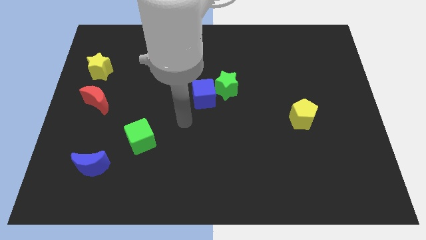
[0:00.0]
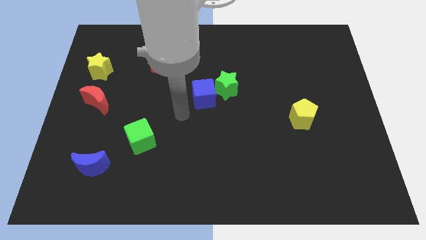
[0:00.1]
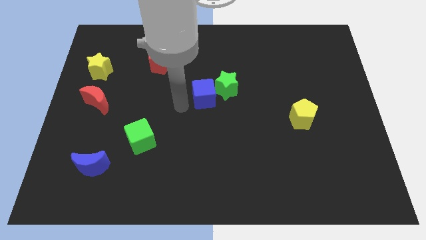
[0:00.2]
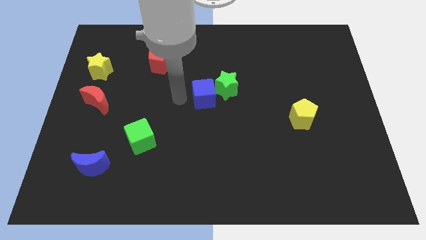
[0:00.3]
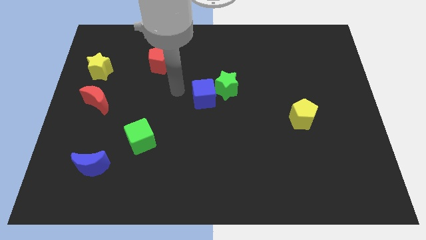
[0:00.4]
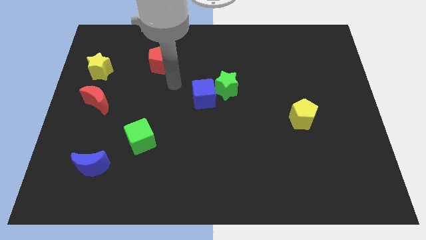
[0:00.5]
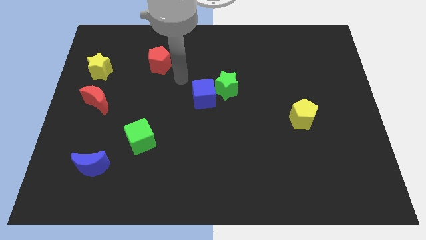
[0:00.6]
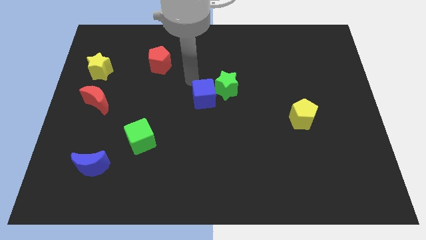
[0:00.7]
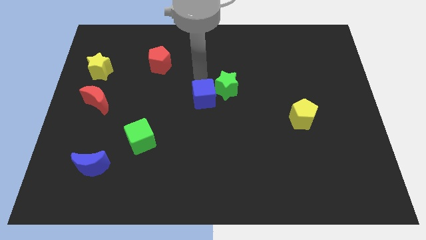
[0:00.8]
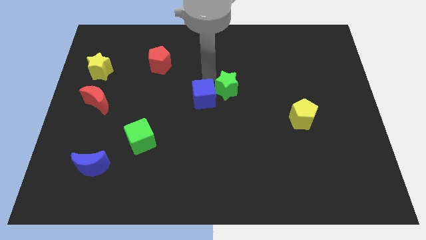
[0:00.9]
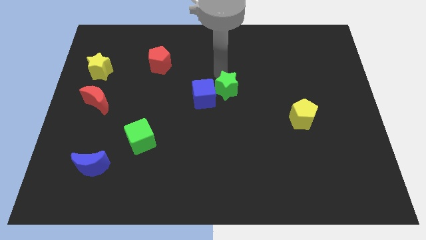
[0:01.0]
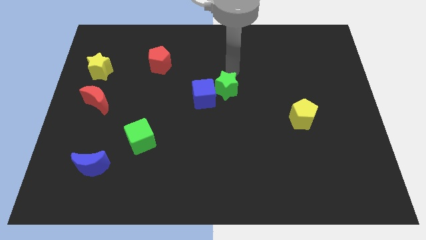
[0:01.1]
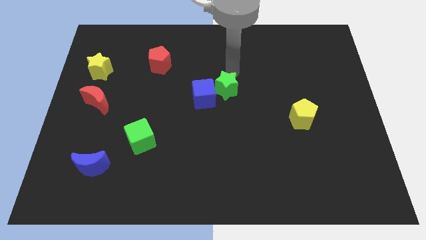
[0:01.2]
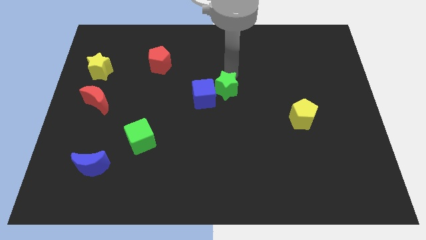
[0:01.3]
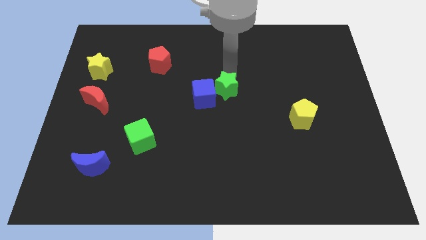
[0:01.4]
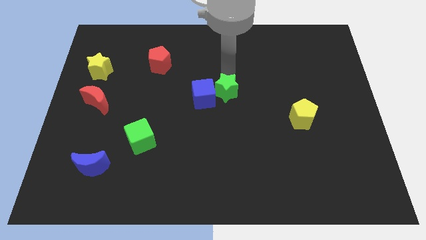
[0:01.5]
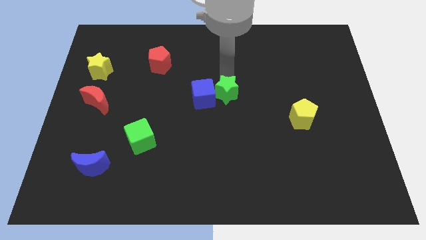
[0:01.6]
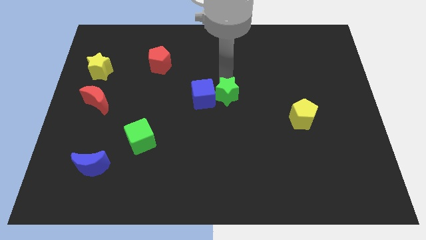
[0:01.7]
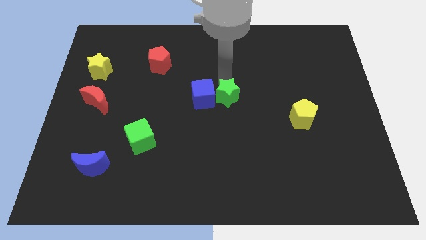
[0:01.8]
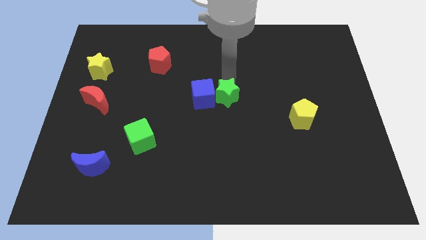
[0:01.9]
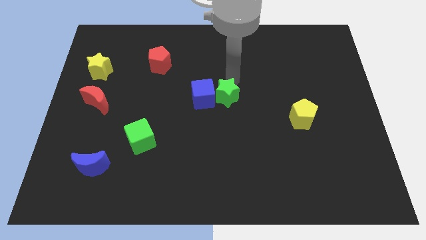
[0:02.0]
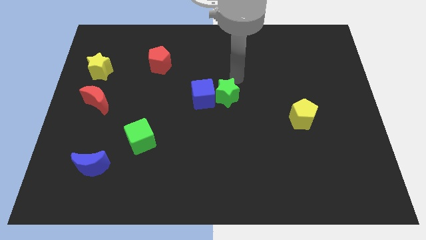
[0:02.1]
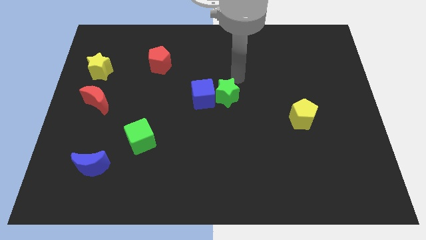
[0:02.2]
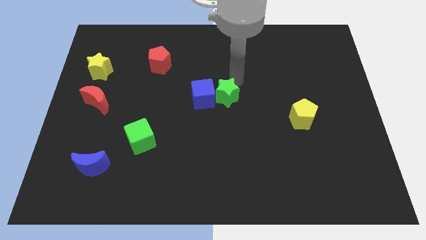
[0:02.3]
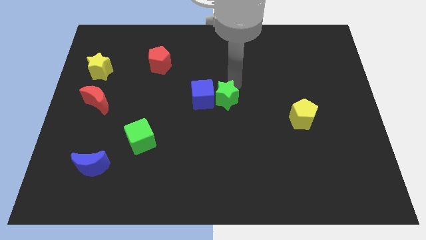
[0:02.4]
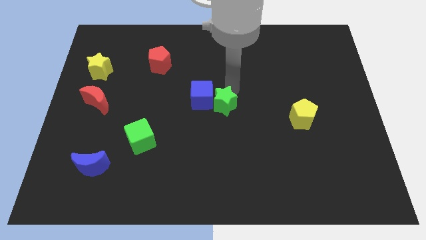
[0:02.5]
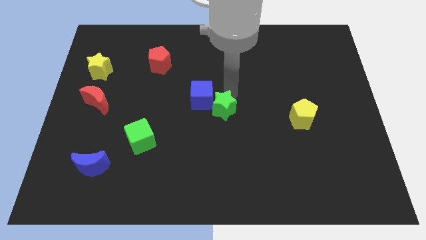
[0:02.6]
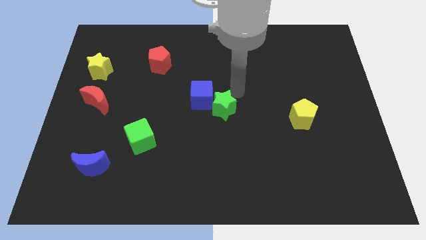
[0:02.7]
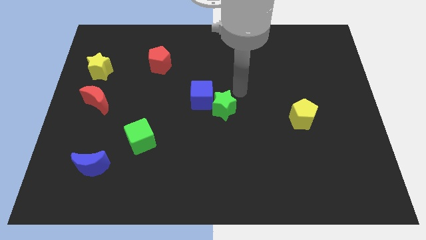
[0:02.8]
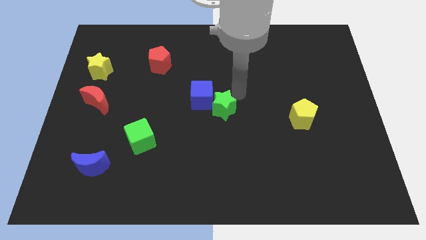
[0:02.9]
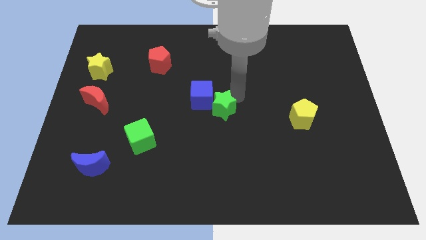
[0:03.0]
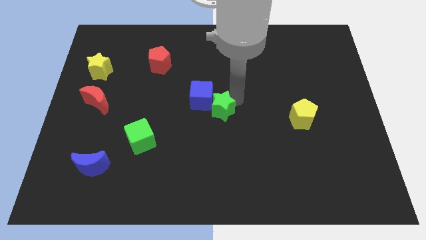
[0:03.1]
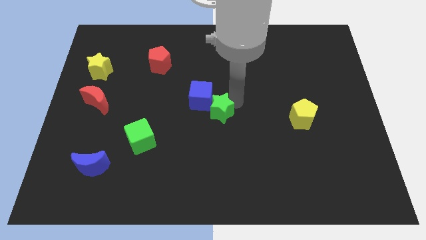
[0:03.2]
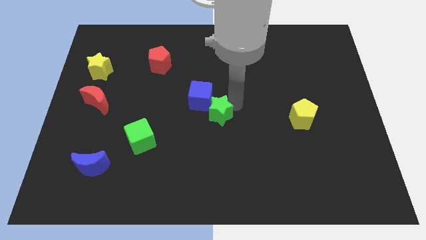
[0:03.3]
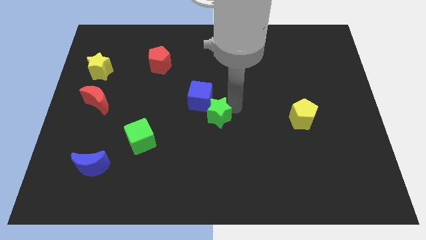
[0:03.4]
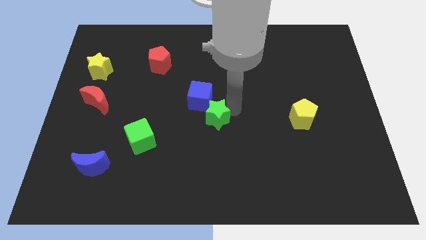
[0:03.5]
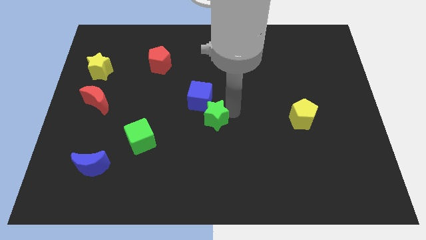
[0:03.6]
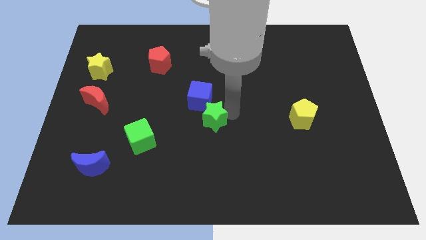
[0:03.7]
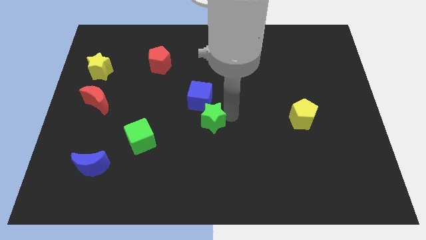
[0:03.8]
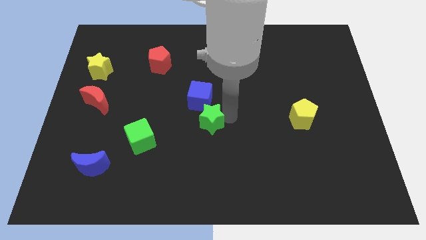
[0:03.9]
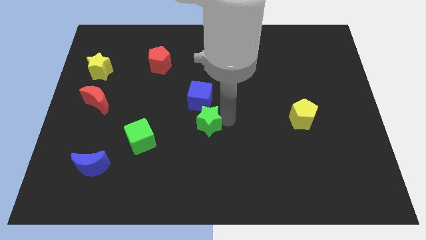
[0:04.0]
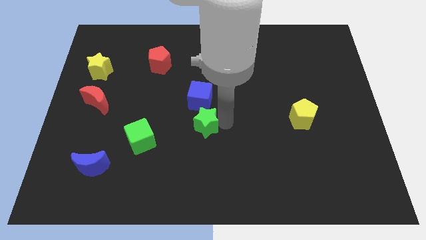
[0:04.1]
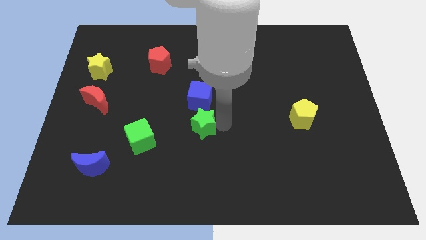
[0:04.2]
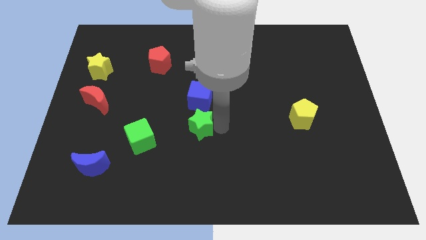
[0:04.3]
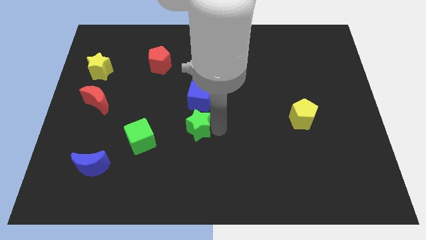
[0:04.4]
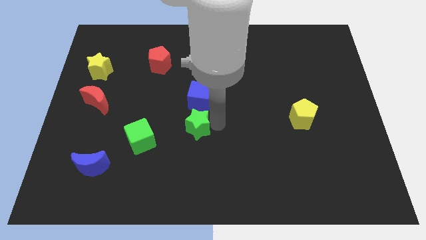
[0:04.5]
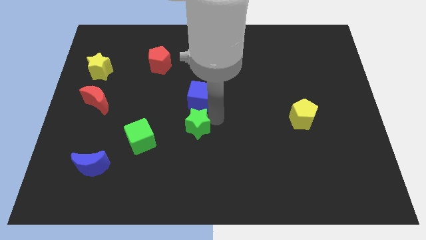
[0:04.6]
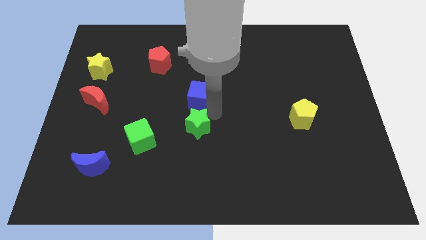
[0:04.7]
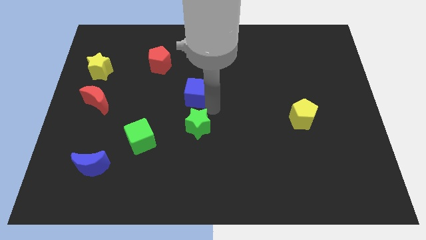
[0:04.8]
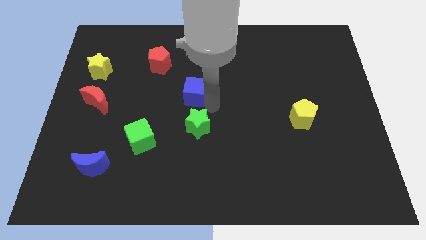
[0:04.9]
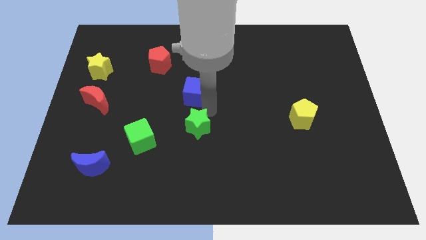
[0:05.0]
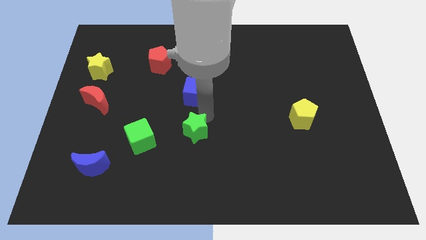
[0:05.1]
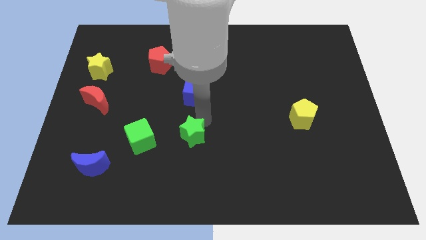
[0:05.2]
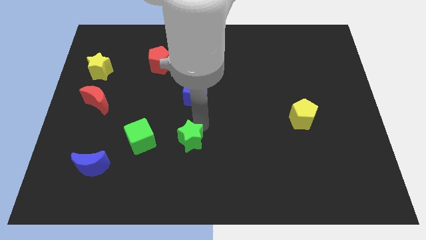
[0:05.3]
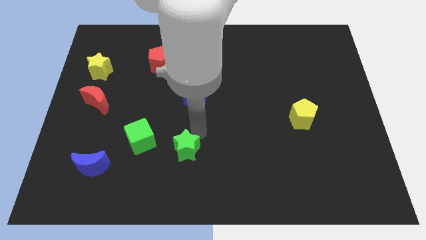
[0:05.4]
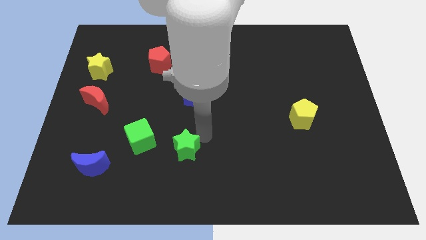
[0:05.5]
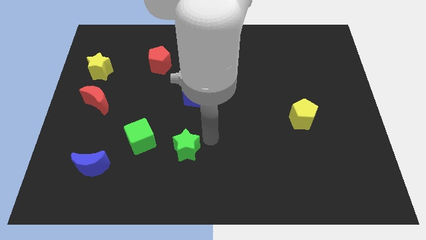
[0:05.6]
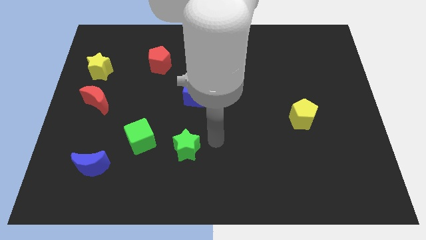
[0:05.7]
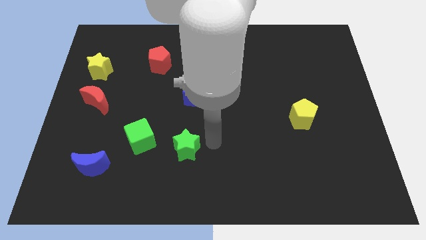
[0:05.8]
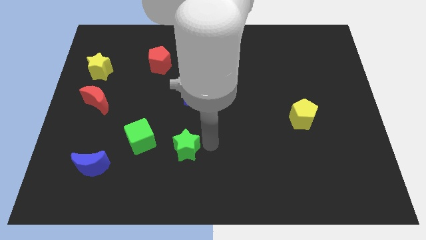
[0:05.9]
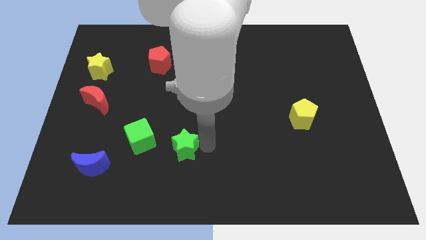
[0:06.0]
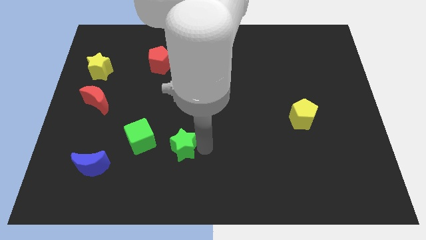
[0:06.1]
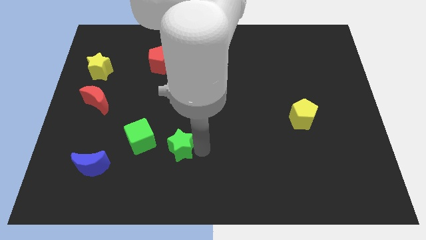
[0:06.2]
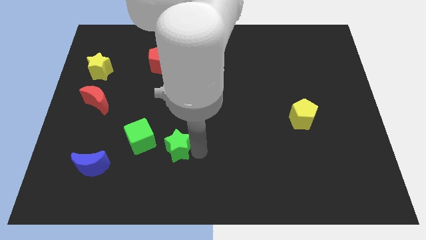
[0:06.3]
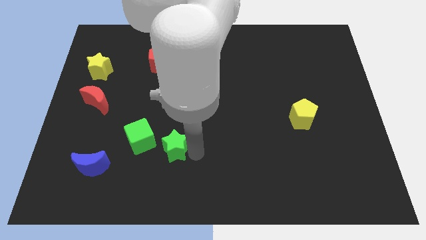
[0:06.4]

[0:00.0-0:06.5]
move the green star downwards and to the left

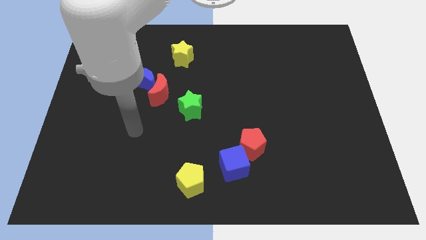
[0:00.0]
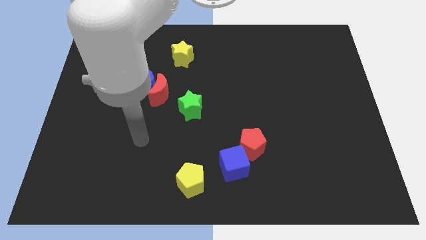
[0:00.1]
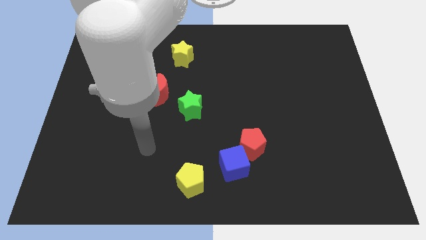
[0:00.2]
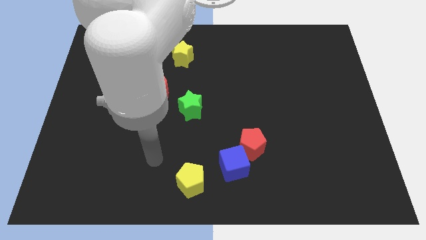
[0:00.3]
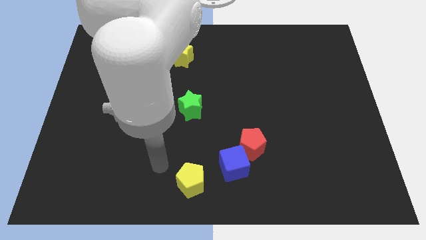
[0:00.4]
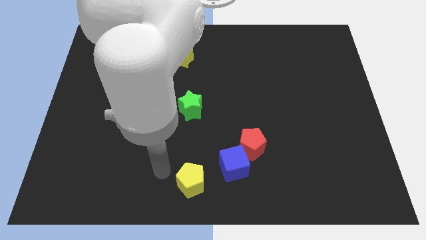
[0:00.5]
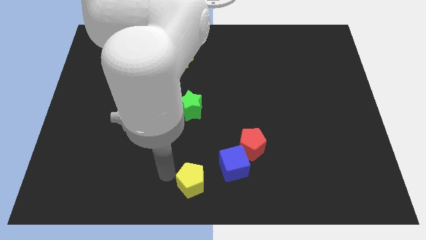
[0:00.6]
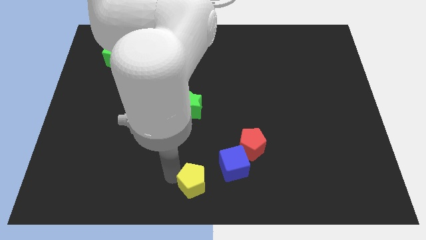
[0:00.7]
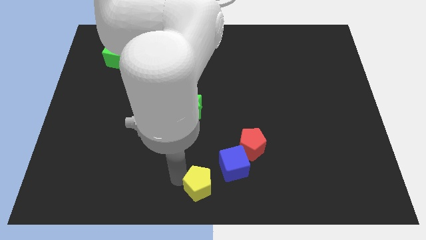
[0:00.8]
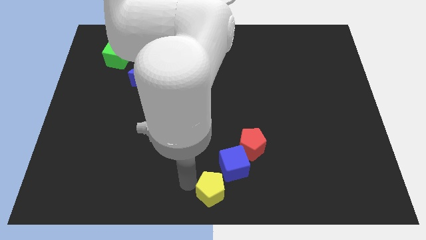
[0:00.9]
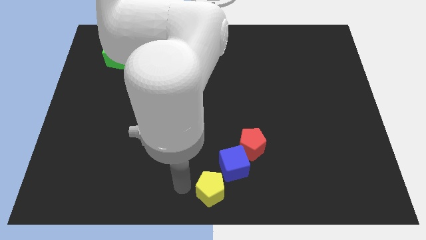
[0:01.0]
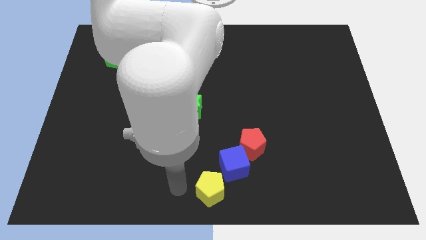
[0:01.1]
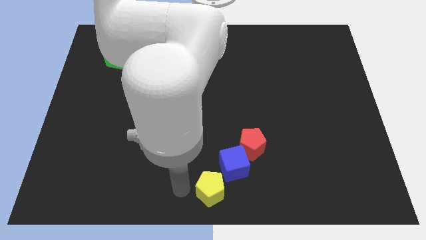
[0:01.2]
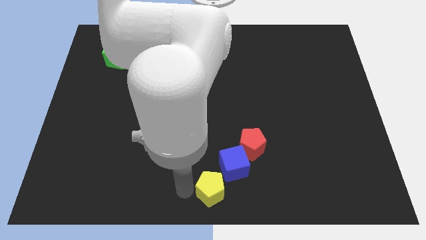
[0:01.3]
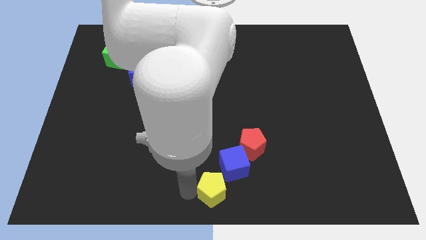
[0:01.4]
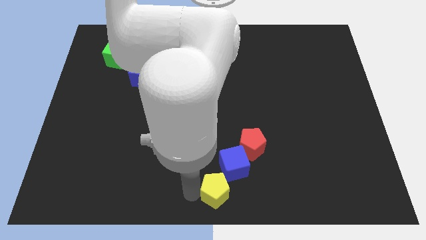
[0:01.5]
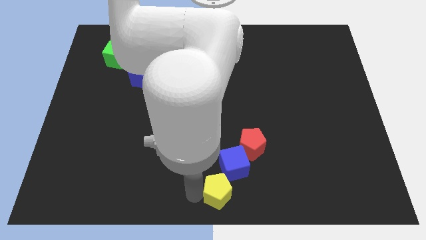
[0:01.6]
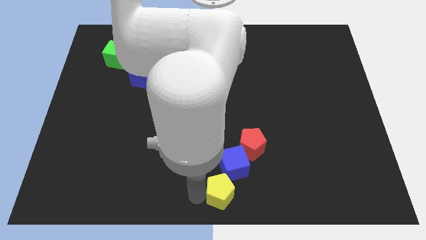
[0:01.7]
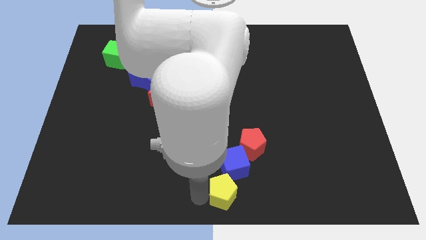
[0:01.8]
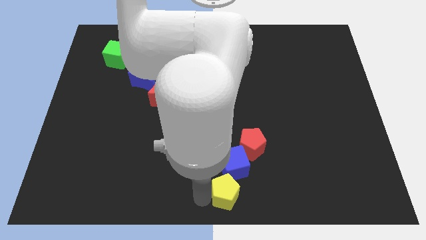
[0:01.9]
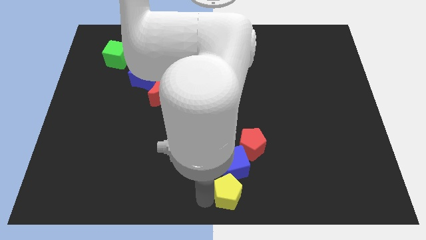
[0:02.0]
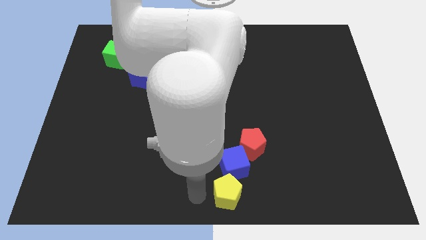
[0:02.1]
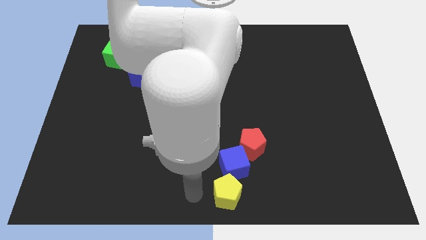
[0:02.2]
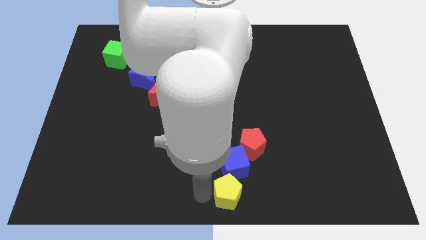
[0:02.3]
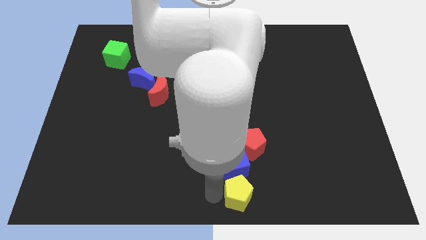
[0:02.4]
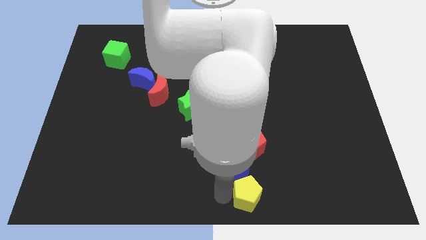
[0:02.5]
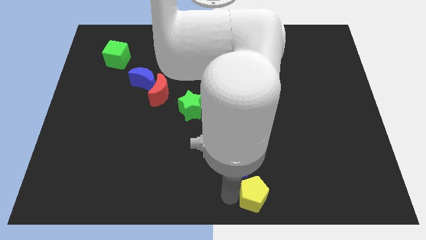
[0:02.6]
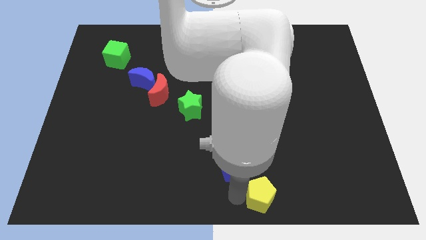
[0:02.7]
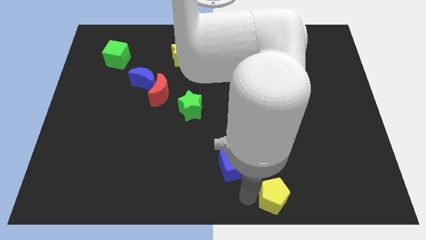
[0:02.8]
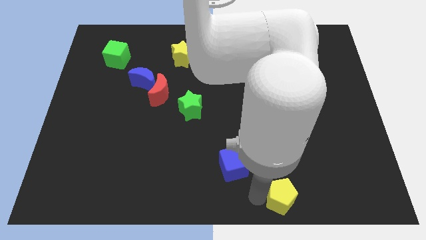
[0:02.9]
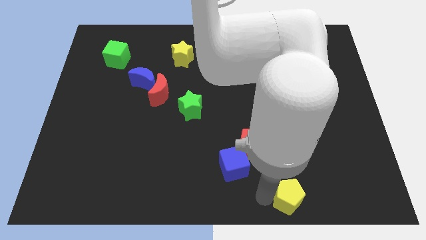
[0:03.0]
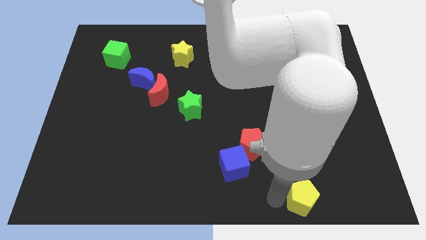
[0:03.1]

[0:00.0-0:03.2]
move the yellow pentagon to the right
